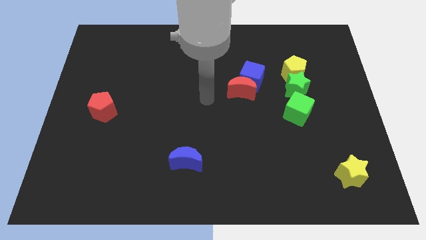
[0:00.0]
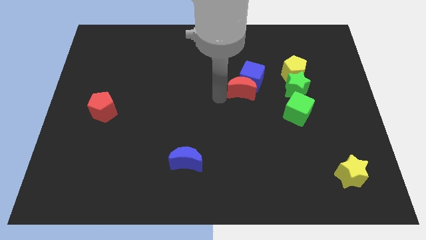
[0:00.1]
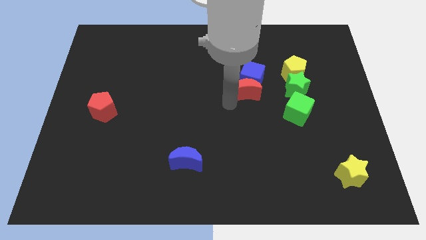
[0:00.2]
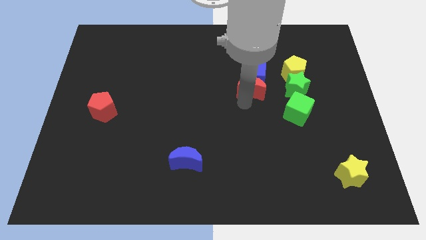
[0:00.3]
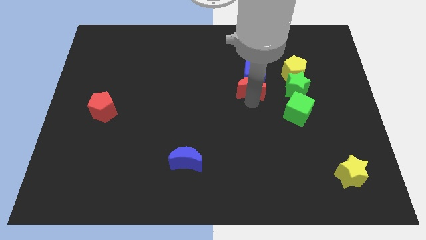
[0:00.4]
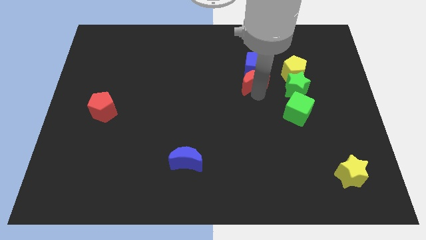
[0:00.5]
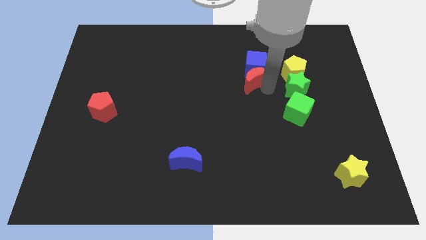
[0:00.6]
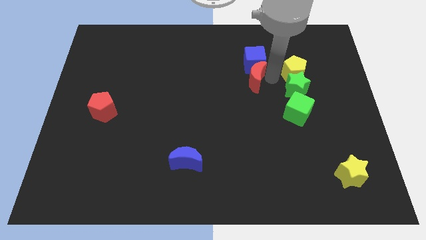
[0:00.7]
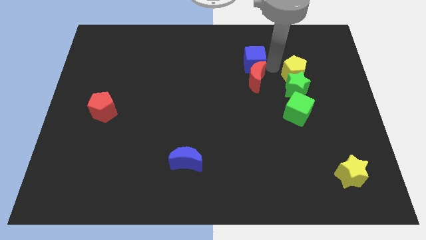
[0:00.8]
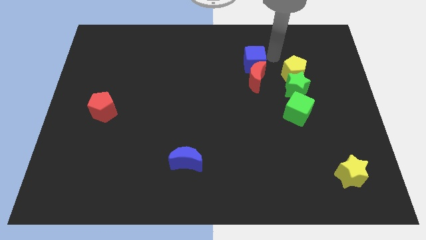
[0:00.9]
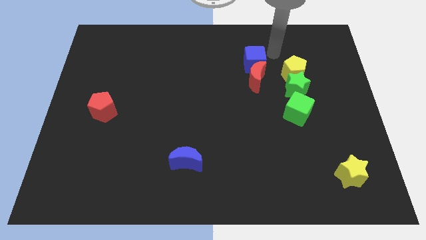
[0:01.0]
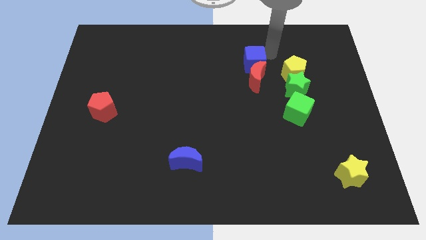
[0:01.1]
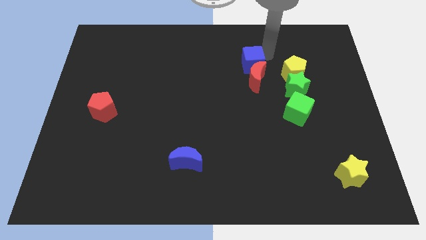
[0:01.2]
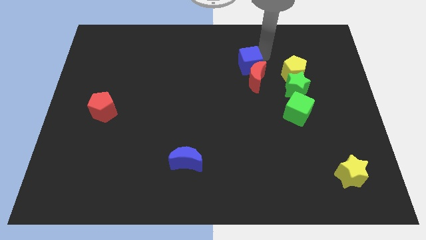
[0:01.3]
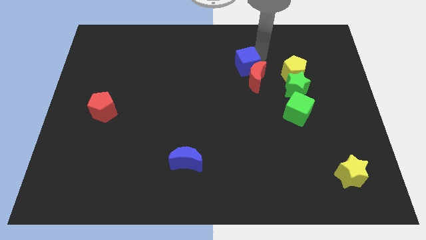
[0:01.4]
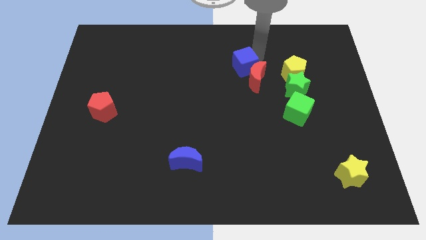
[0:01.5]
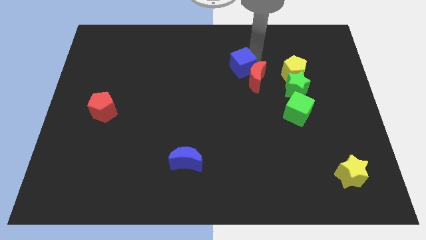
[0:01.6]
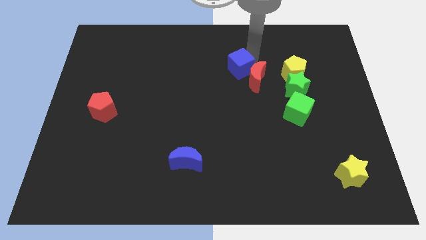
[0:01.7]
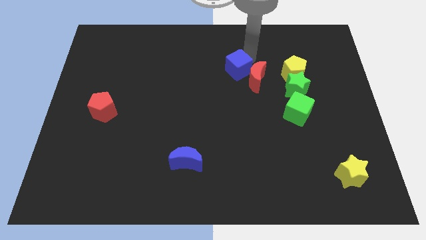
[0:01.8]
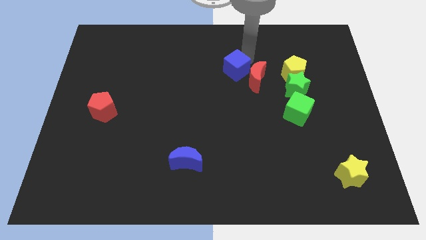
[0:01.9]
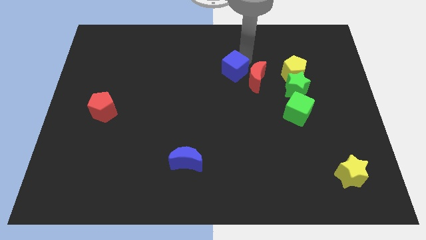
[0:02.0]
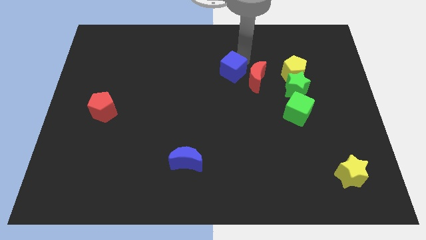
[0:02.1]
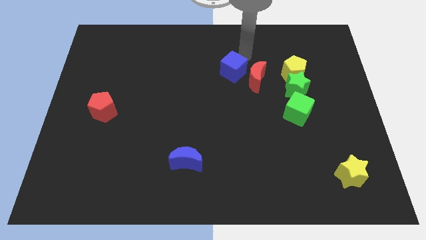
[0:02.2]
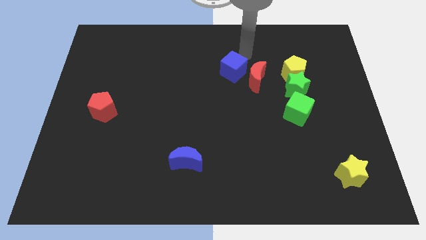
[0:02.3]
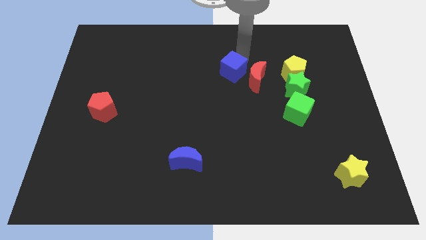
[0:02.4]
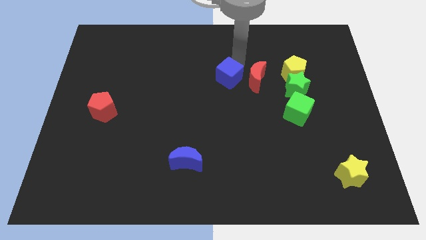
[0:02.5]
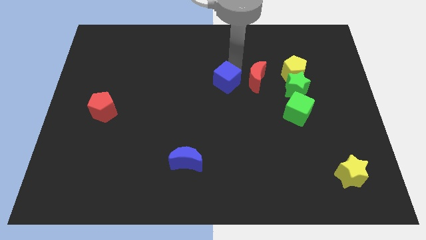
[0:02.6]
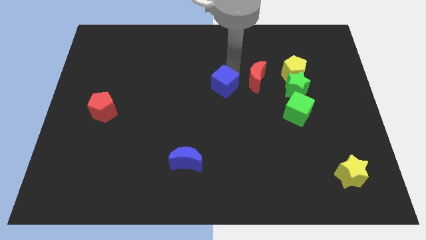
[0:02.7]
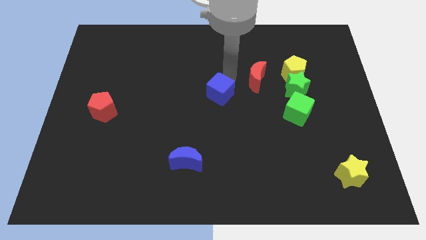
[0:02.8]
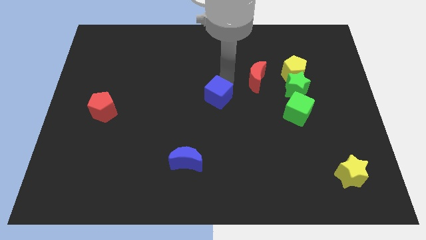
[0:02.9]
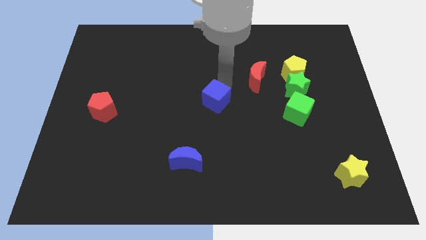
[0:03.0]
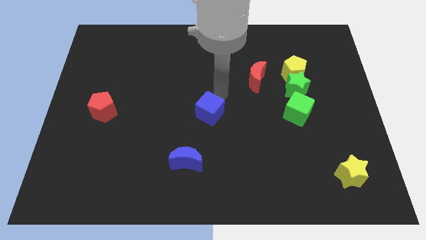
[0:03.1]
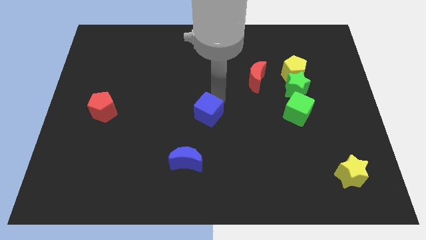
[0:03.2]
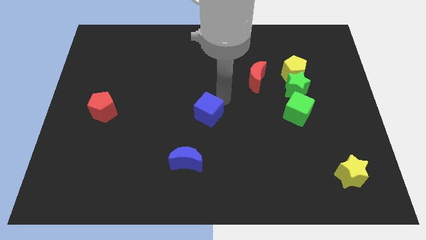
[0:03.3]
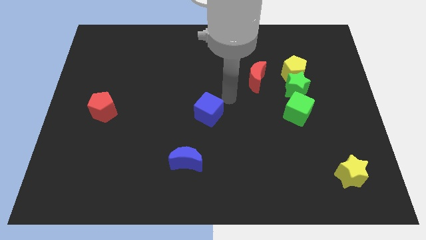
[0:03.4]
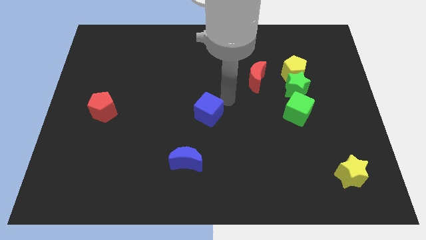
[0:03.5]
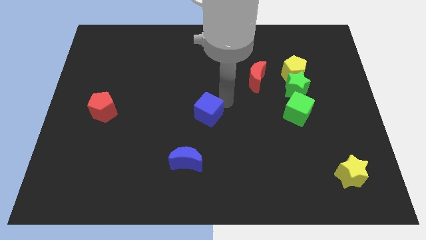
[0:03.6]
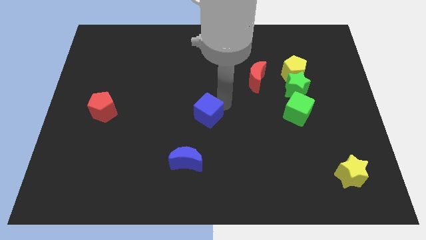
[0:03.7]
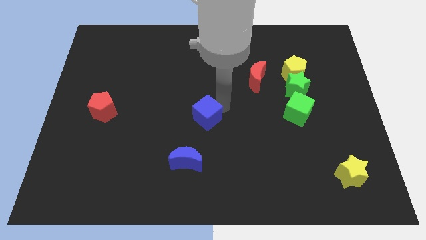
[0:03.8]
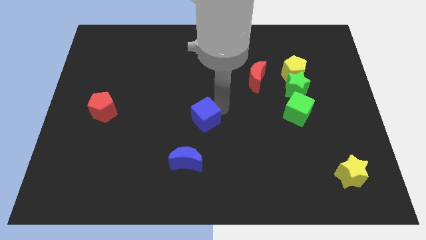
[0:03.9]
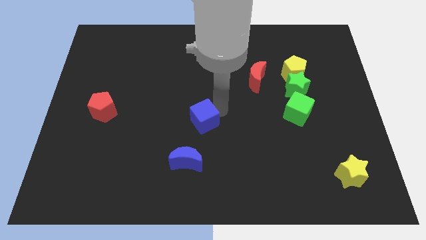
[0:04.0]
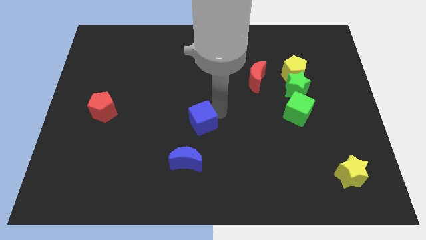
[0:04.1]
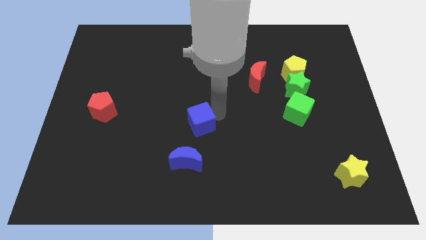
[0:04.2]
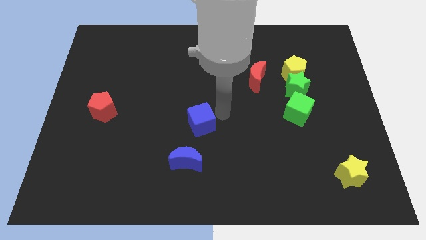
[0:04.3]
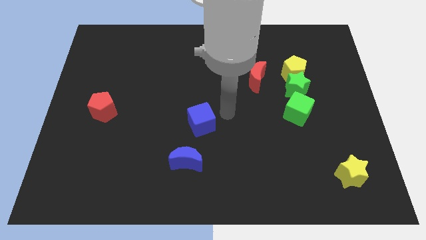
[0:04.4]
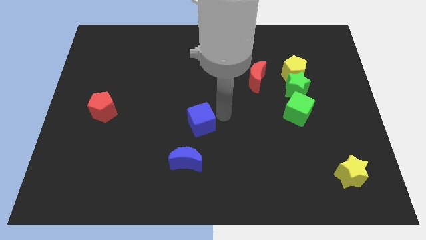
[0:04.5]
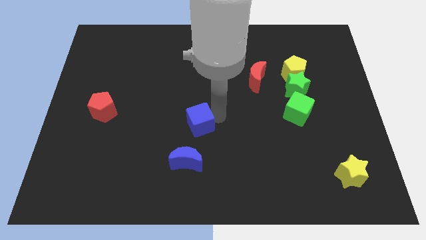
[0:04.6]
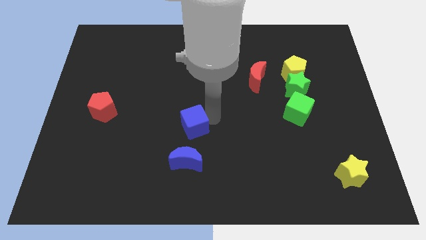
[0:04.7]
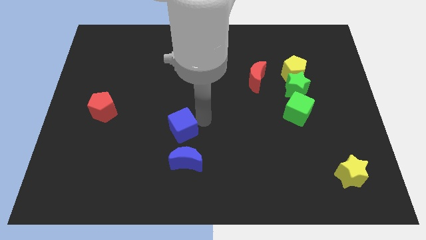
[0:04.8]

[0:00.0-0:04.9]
push the blue cube downwards and to the left

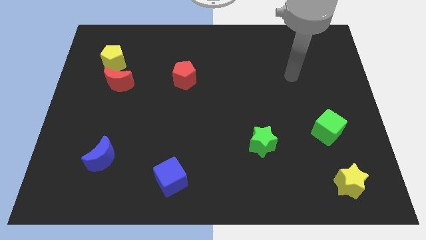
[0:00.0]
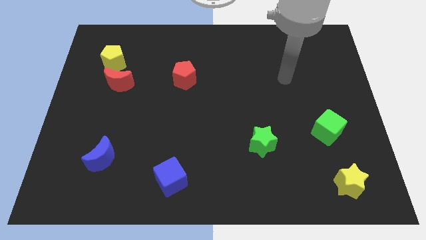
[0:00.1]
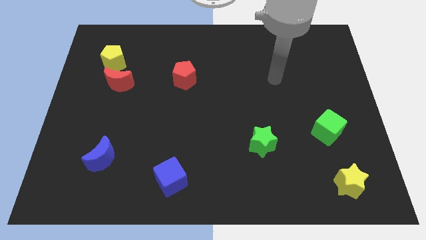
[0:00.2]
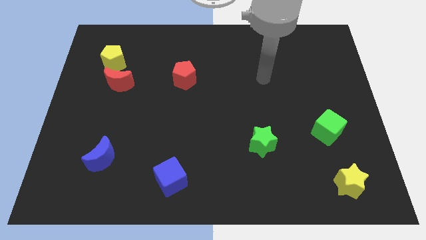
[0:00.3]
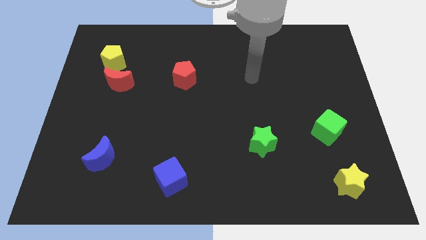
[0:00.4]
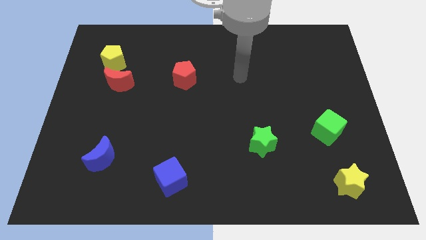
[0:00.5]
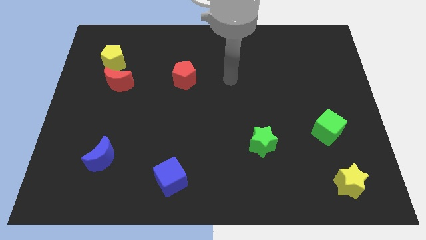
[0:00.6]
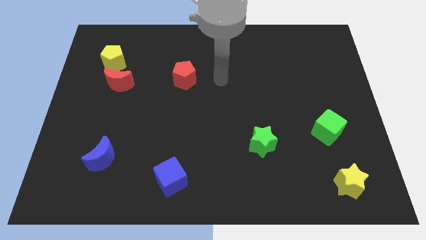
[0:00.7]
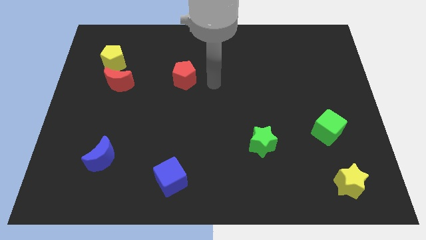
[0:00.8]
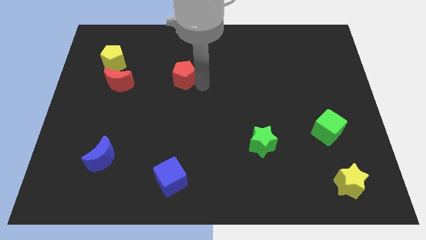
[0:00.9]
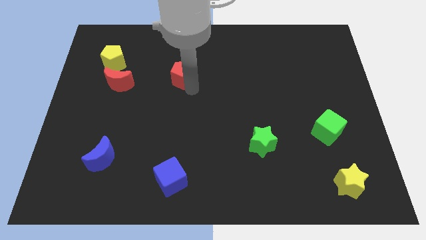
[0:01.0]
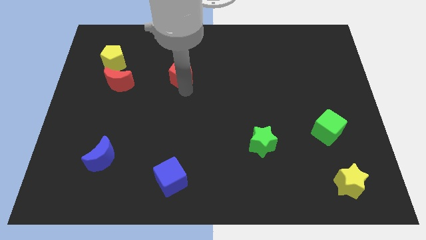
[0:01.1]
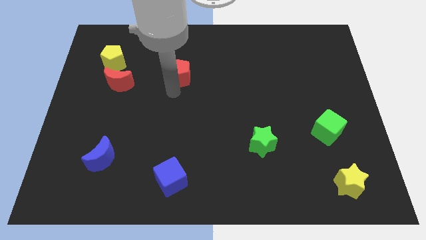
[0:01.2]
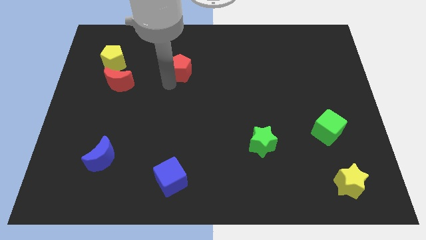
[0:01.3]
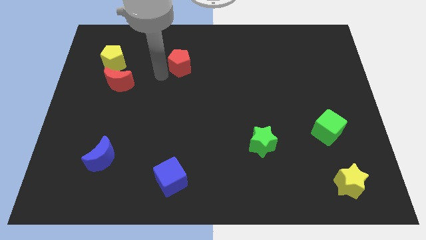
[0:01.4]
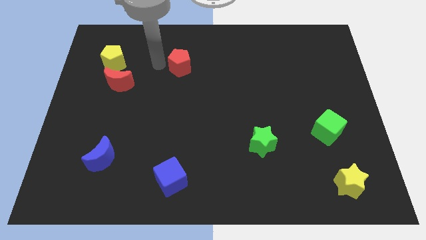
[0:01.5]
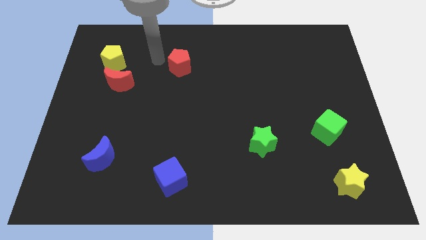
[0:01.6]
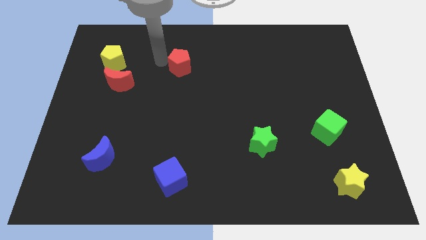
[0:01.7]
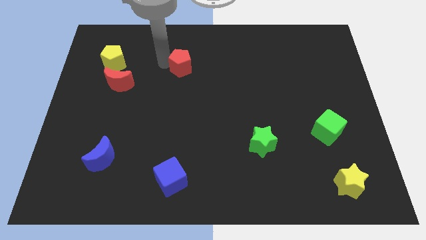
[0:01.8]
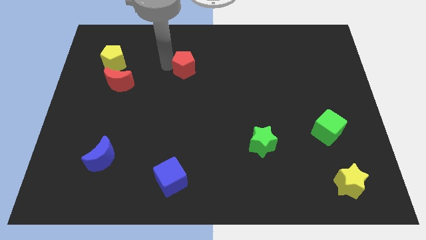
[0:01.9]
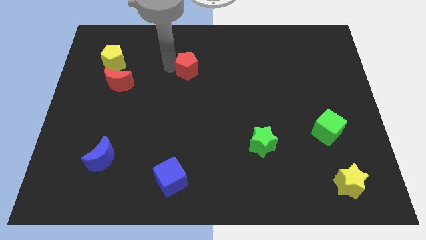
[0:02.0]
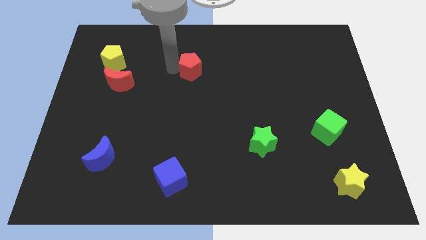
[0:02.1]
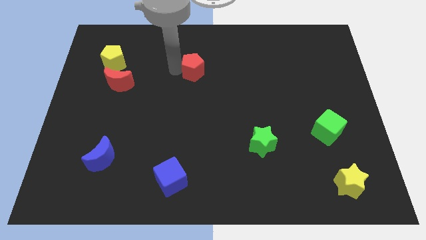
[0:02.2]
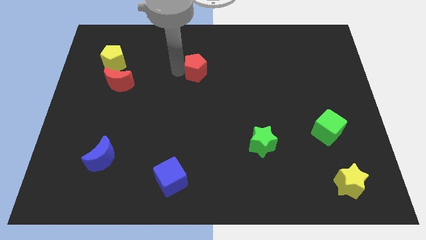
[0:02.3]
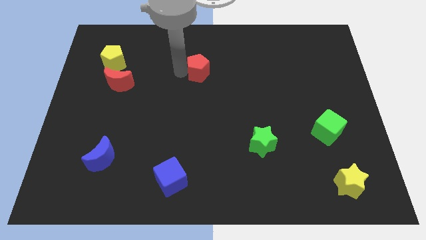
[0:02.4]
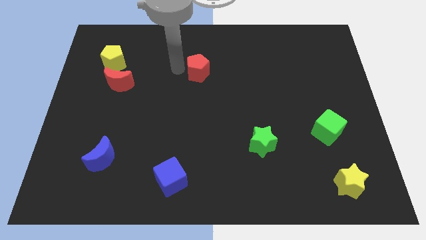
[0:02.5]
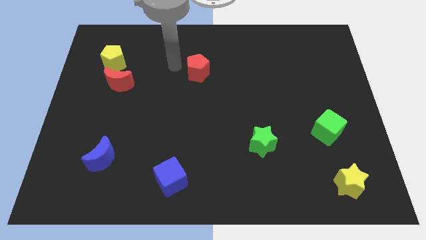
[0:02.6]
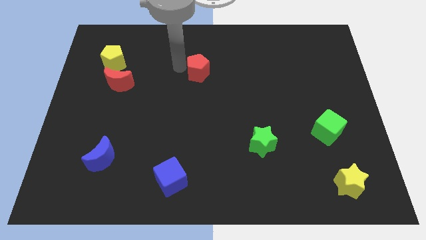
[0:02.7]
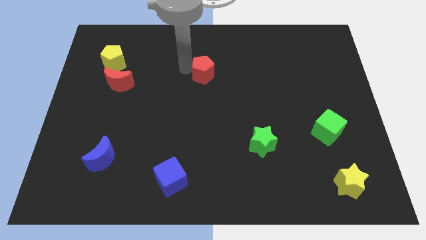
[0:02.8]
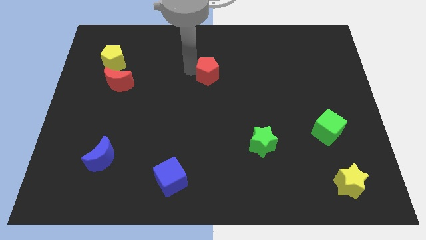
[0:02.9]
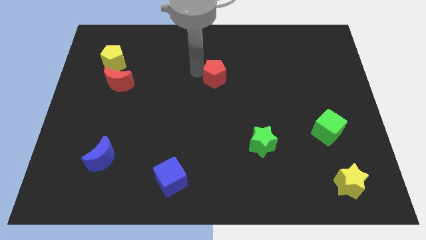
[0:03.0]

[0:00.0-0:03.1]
slide the red pentagon right a bit
